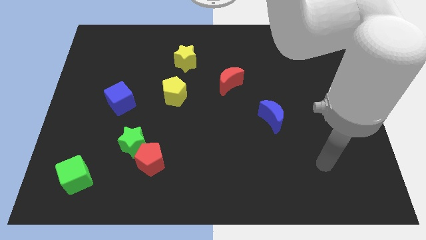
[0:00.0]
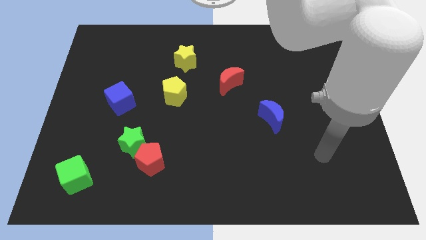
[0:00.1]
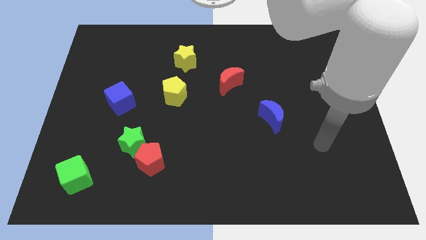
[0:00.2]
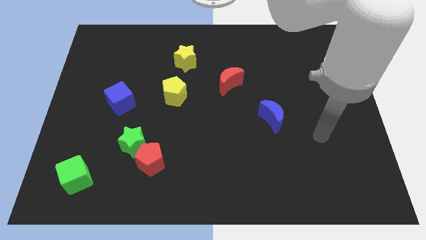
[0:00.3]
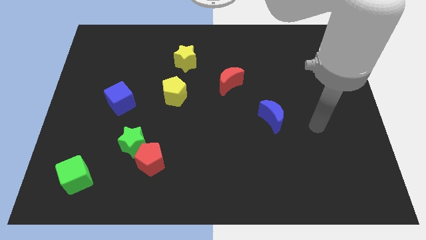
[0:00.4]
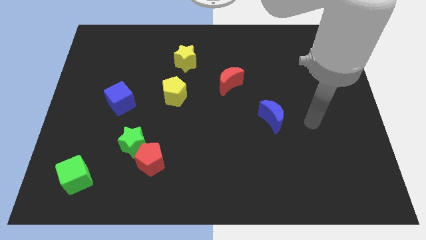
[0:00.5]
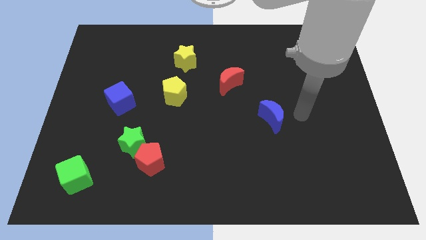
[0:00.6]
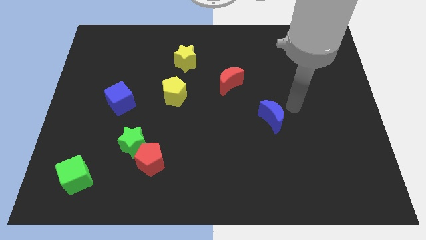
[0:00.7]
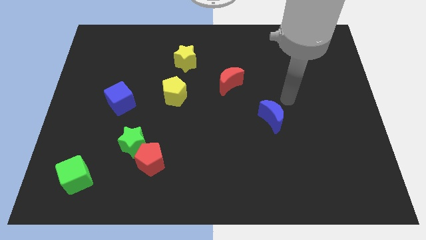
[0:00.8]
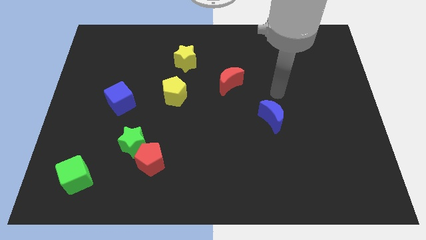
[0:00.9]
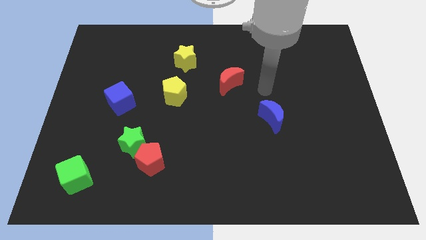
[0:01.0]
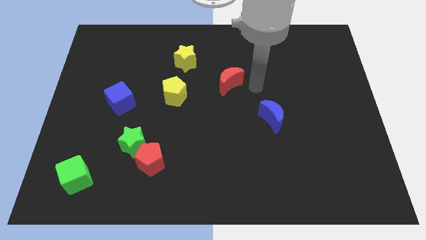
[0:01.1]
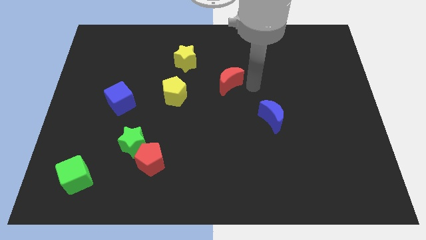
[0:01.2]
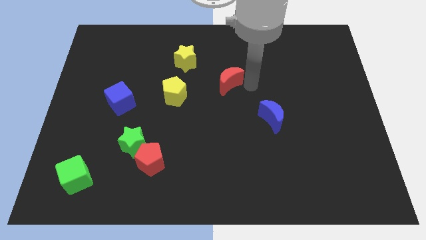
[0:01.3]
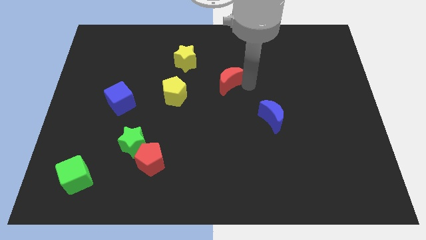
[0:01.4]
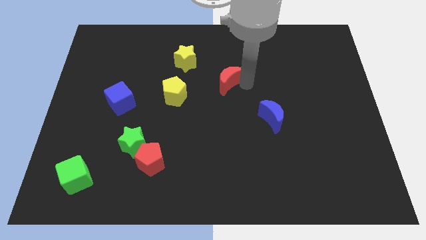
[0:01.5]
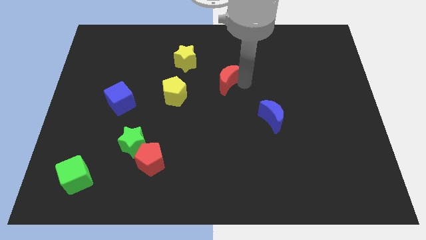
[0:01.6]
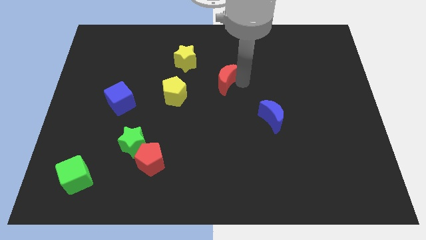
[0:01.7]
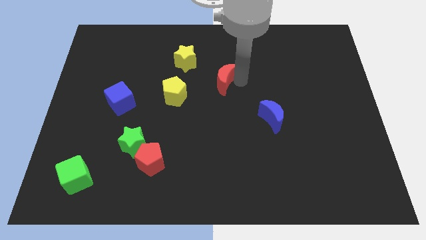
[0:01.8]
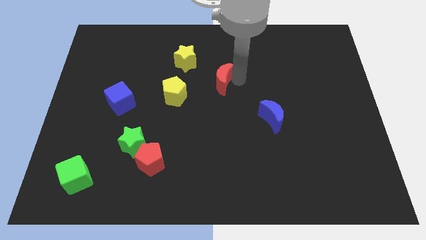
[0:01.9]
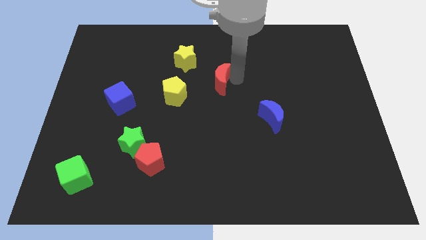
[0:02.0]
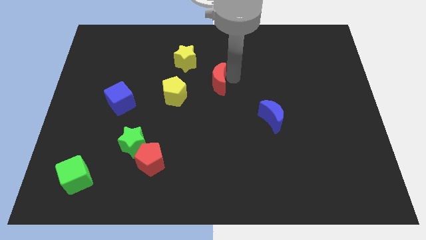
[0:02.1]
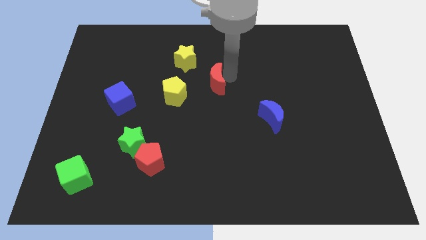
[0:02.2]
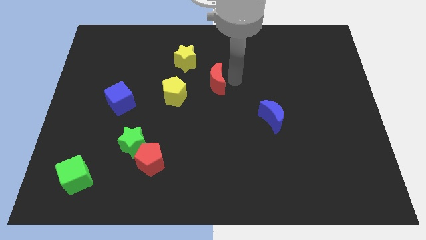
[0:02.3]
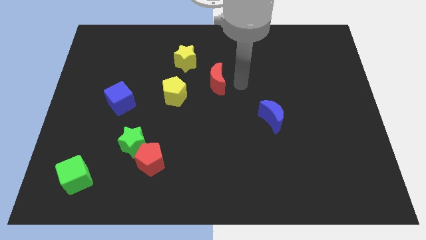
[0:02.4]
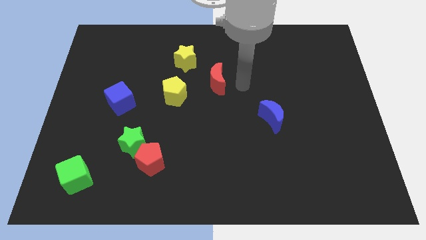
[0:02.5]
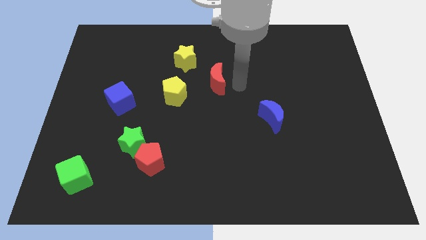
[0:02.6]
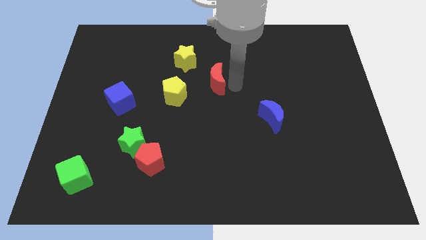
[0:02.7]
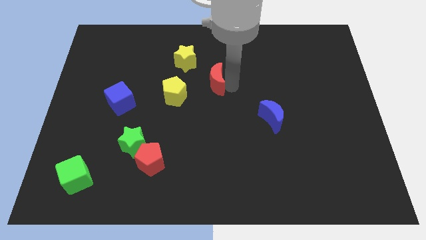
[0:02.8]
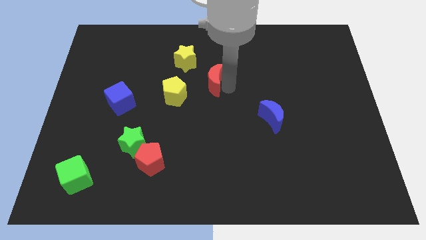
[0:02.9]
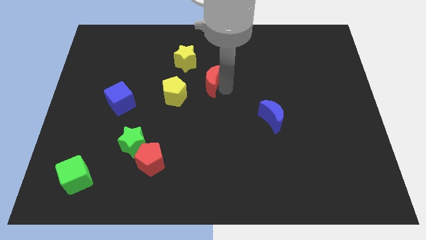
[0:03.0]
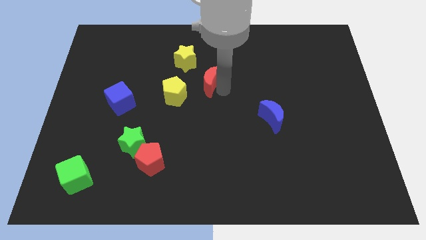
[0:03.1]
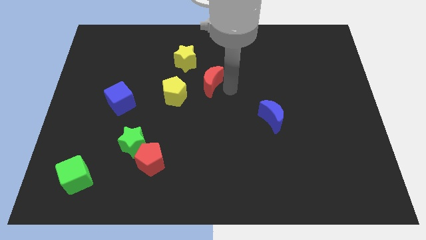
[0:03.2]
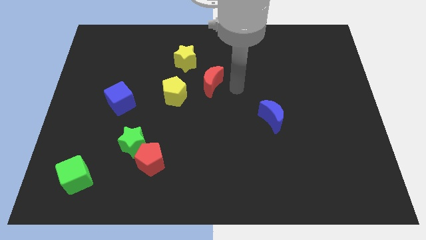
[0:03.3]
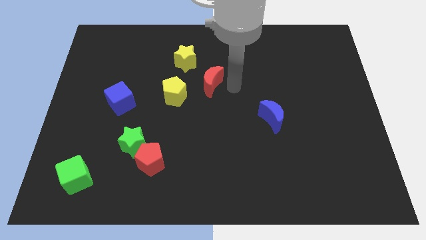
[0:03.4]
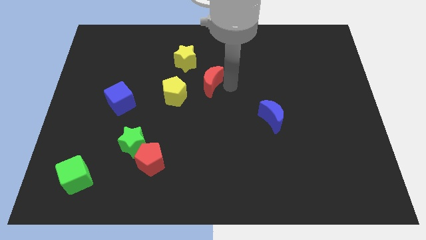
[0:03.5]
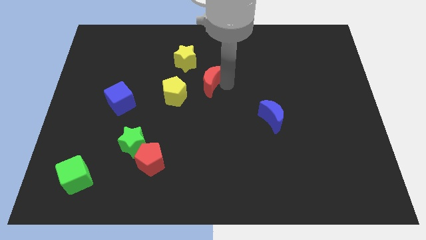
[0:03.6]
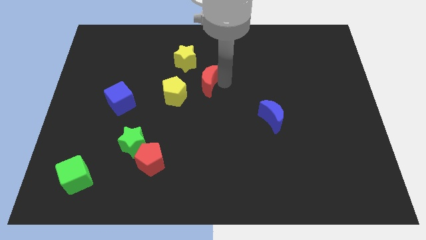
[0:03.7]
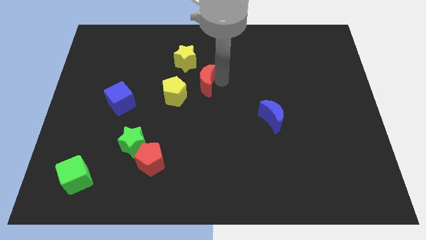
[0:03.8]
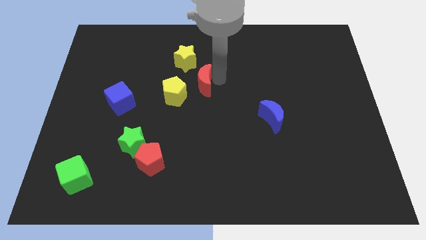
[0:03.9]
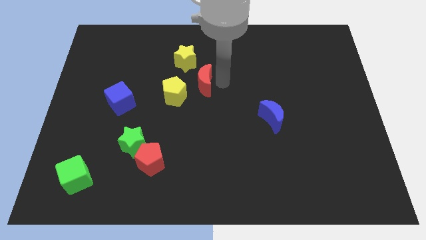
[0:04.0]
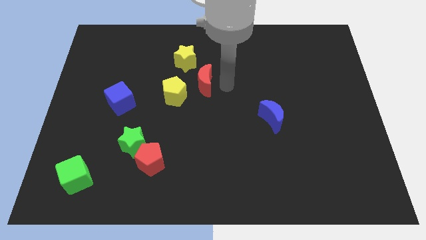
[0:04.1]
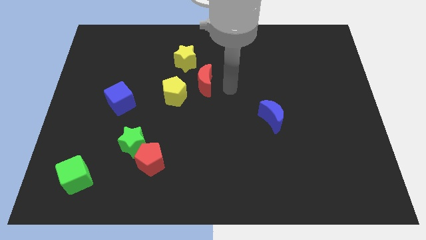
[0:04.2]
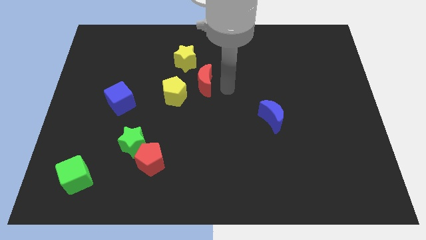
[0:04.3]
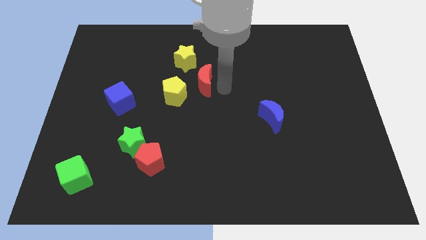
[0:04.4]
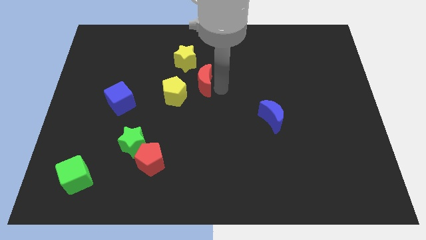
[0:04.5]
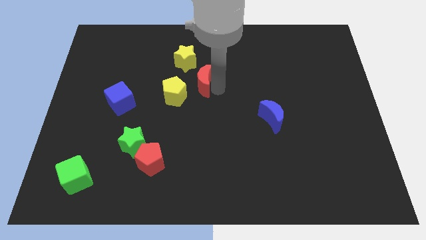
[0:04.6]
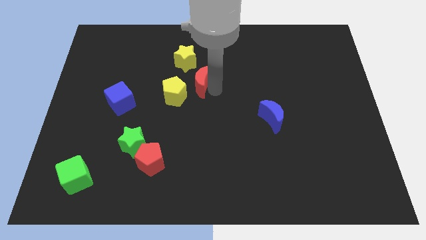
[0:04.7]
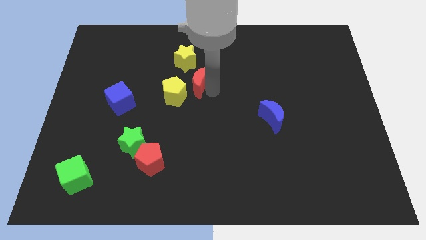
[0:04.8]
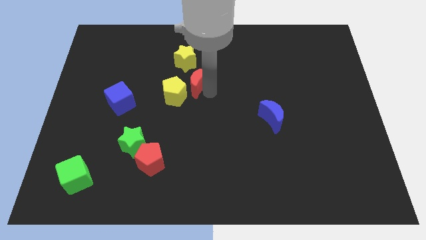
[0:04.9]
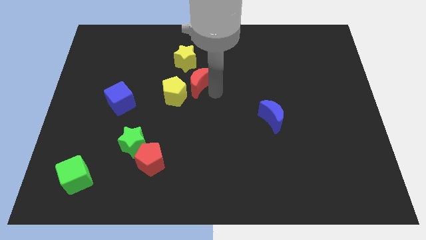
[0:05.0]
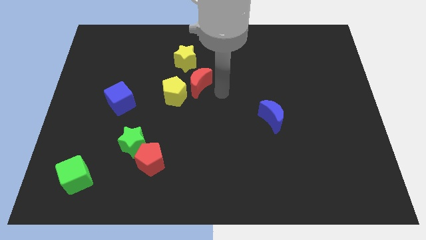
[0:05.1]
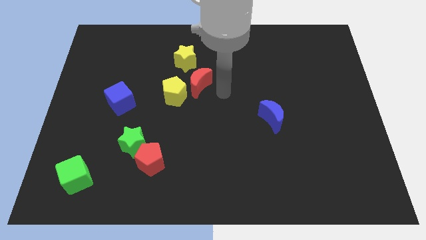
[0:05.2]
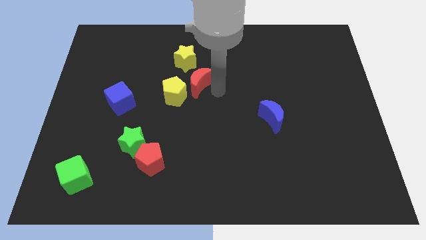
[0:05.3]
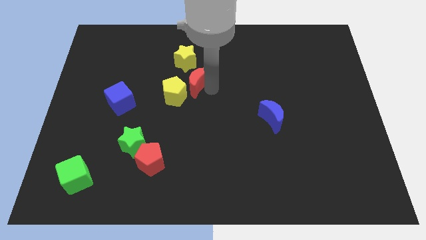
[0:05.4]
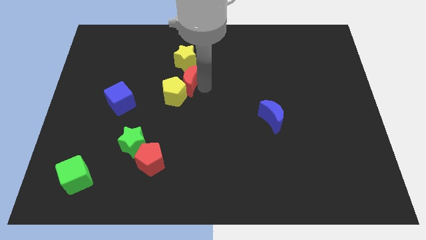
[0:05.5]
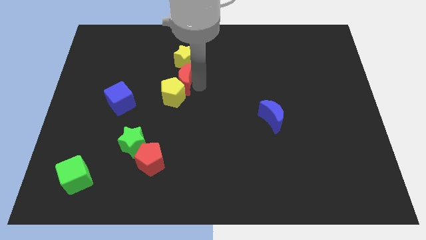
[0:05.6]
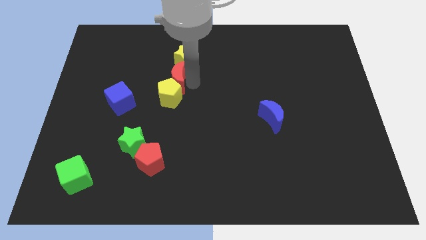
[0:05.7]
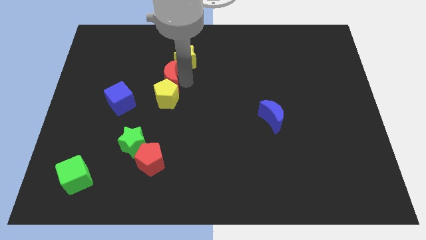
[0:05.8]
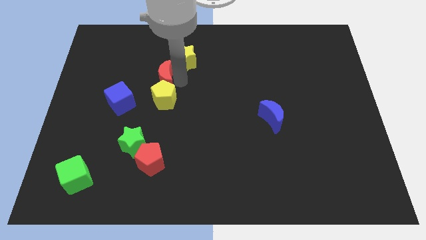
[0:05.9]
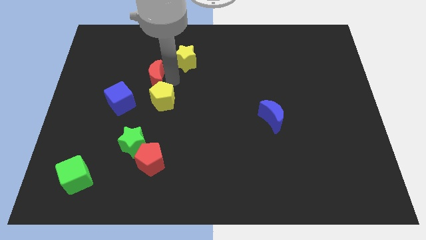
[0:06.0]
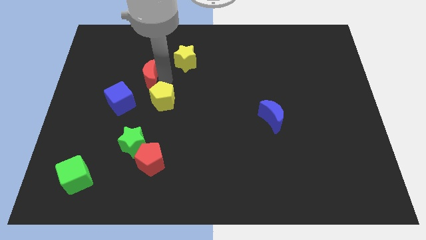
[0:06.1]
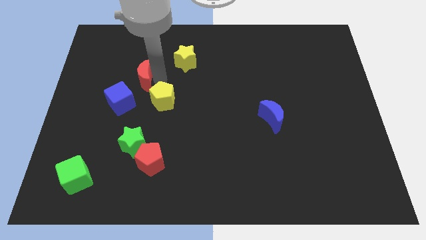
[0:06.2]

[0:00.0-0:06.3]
move the red moon left

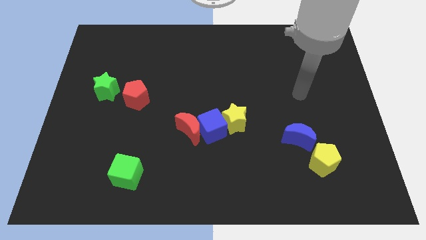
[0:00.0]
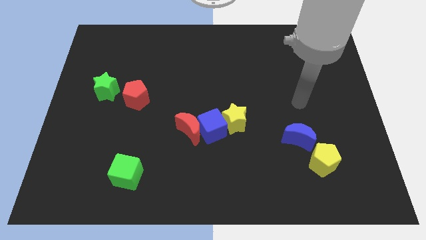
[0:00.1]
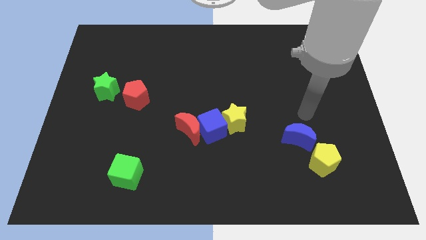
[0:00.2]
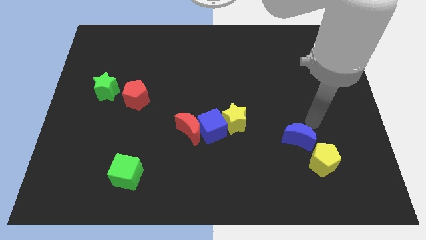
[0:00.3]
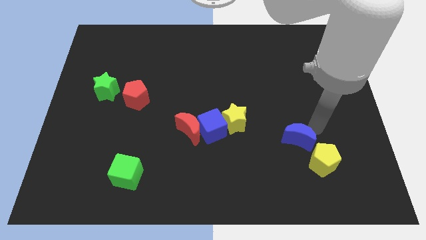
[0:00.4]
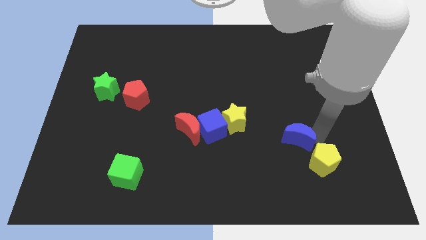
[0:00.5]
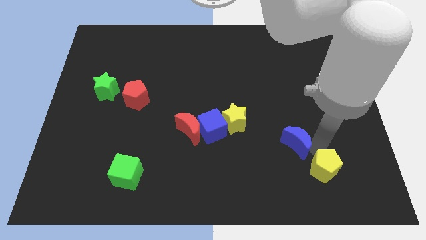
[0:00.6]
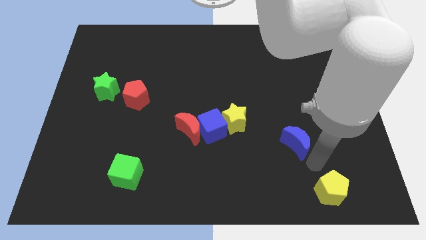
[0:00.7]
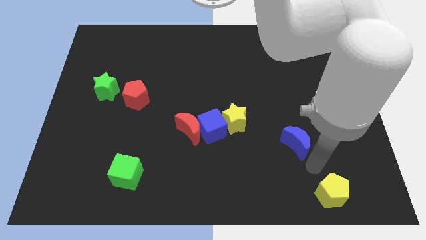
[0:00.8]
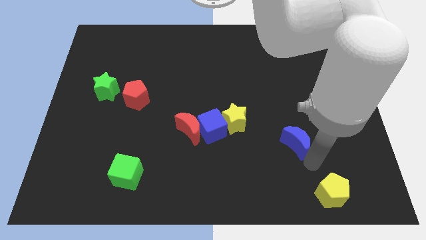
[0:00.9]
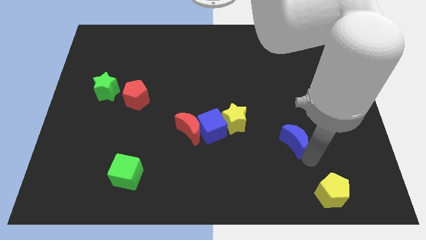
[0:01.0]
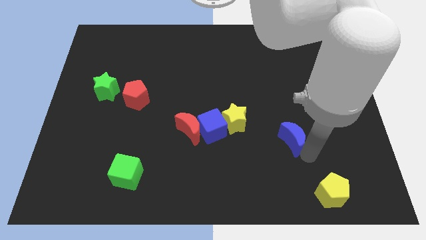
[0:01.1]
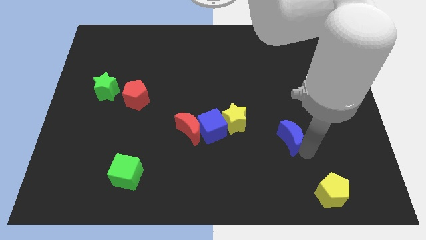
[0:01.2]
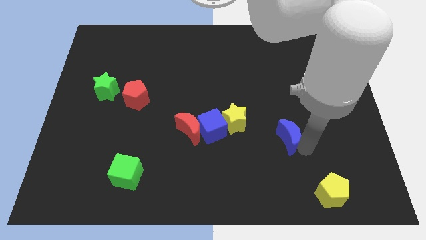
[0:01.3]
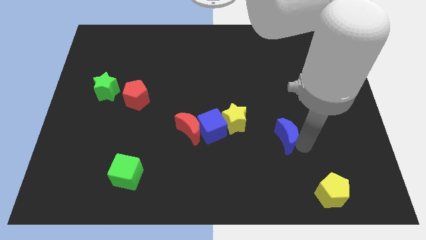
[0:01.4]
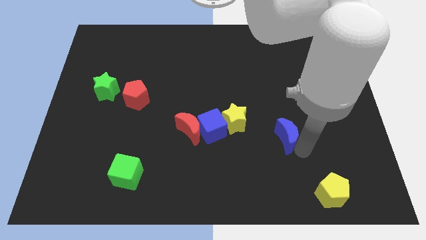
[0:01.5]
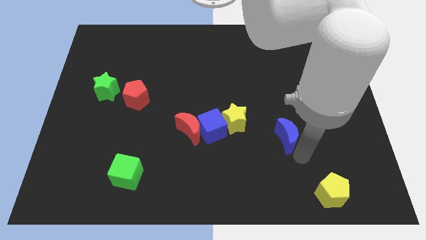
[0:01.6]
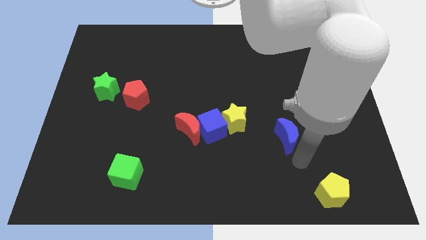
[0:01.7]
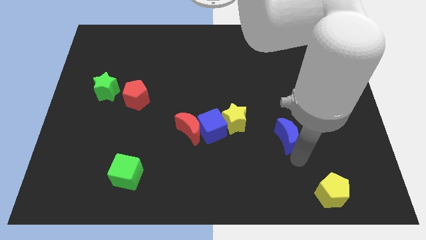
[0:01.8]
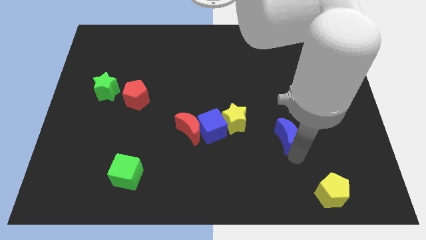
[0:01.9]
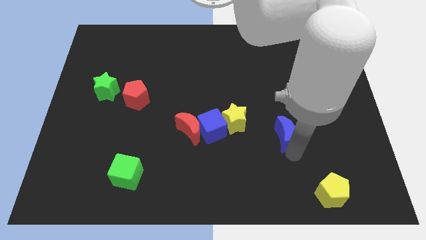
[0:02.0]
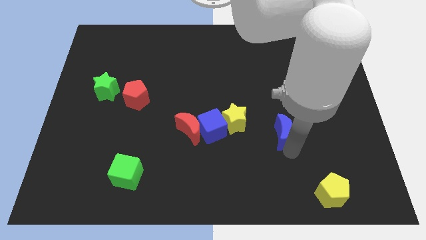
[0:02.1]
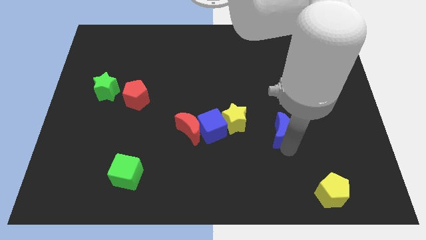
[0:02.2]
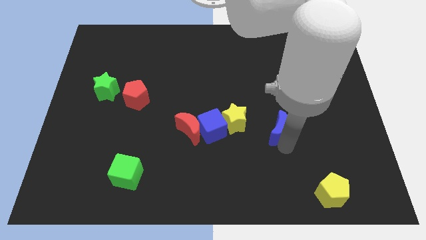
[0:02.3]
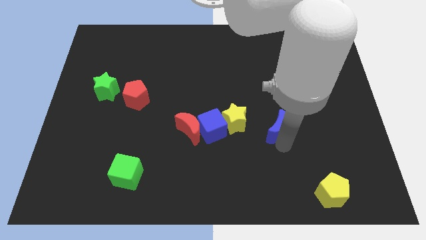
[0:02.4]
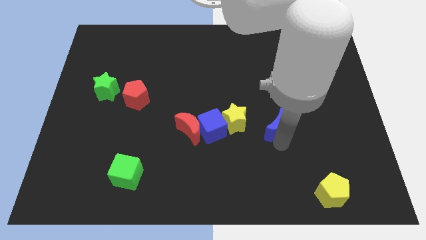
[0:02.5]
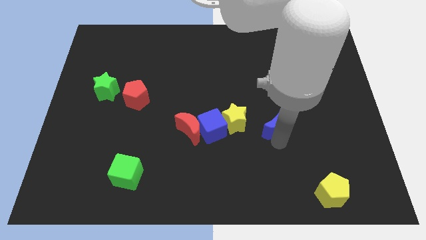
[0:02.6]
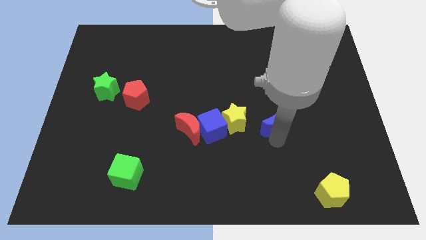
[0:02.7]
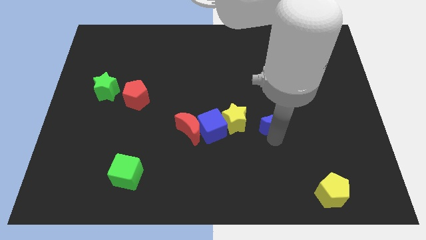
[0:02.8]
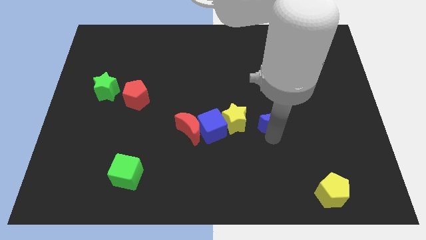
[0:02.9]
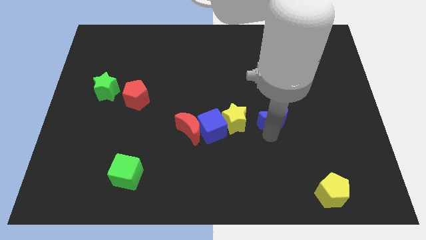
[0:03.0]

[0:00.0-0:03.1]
slide the blue moon upwards and left diagonally a little
